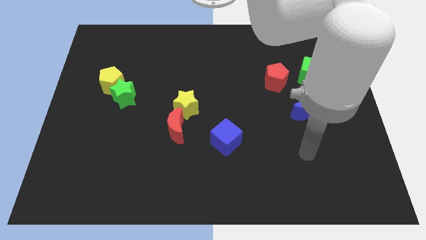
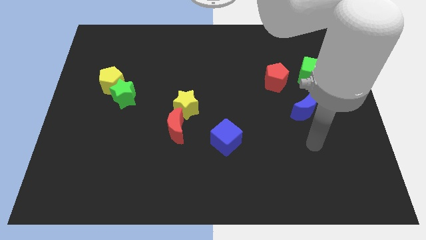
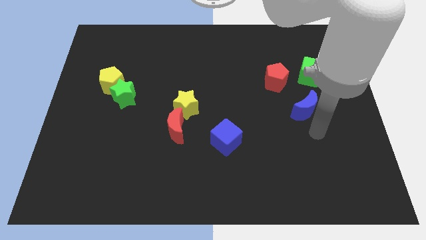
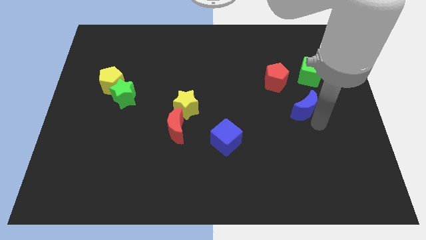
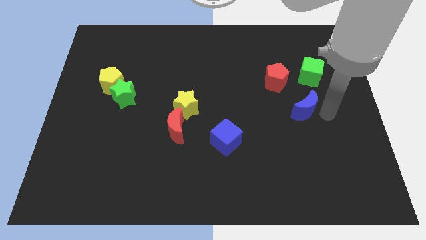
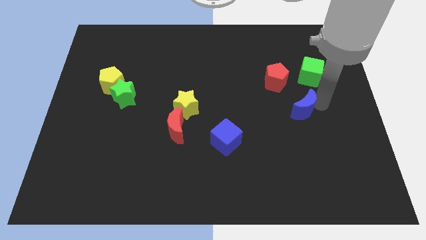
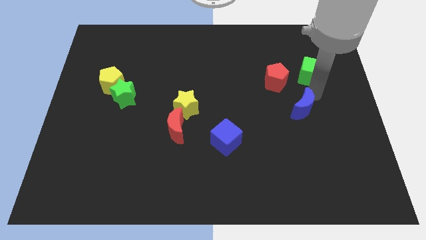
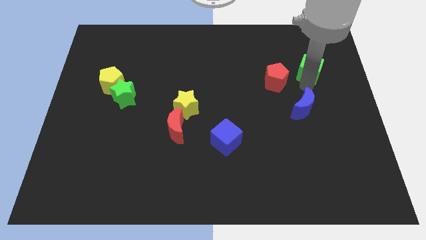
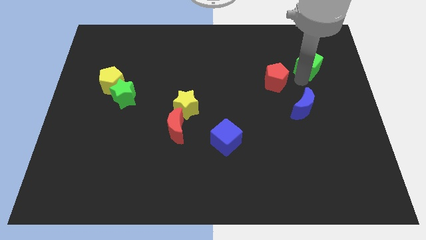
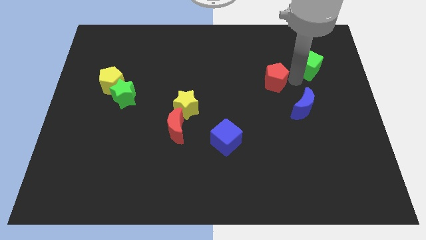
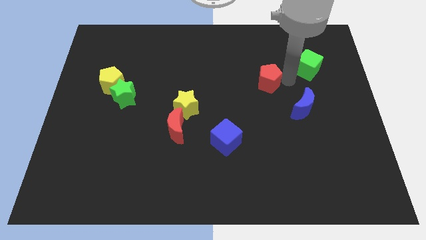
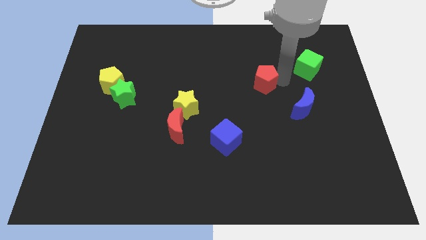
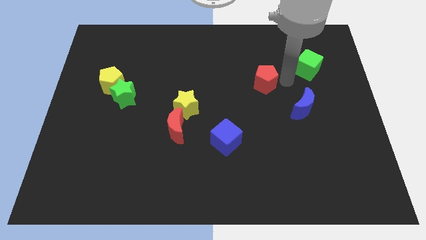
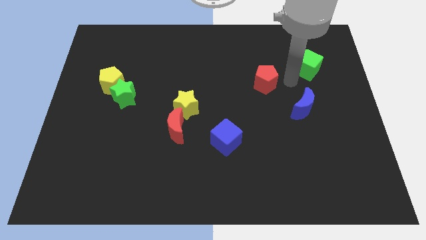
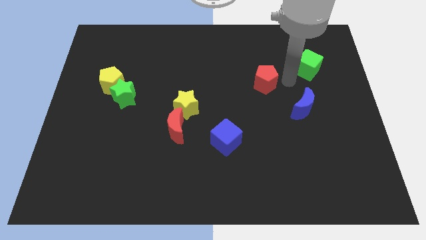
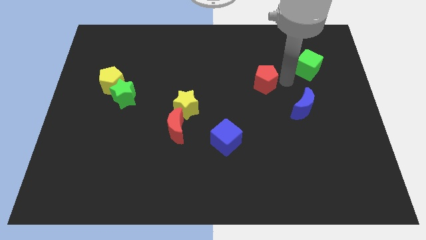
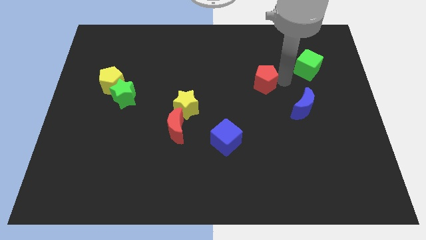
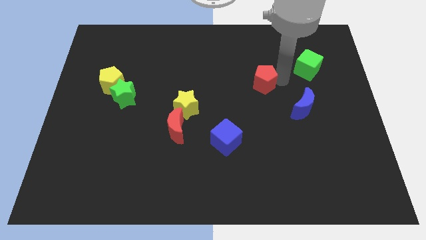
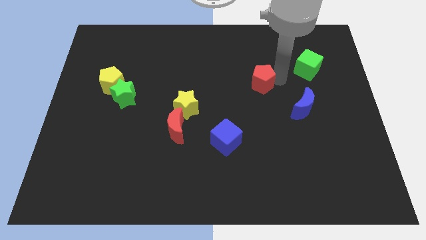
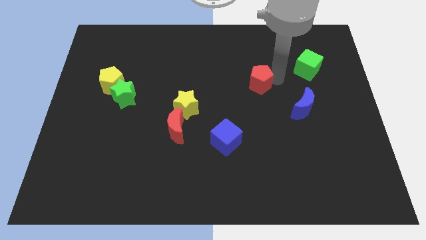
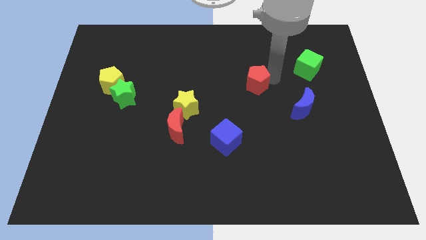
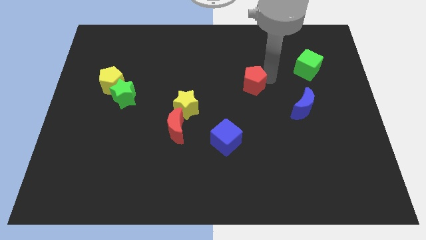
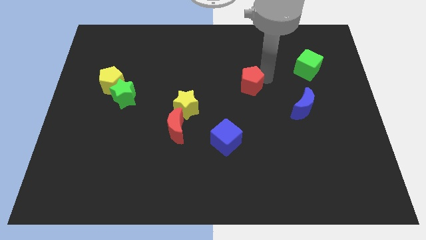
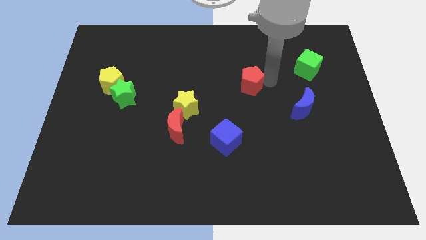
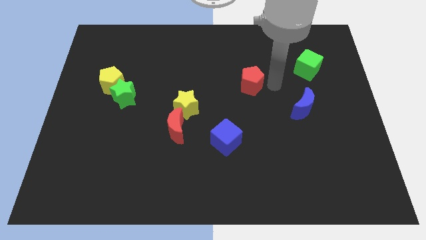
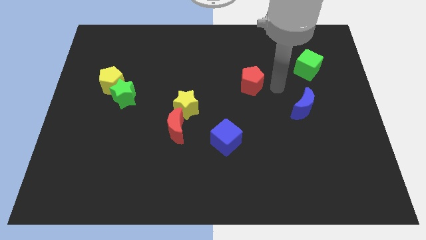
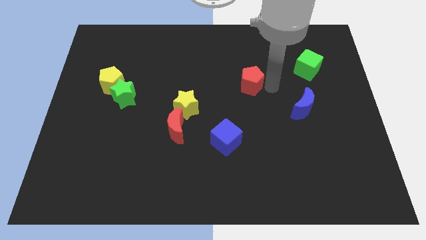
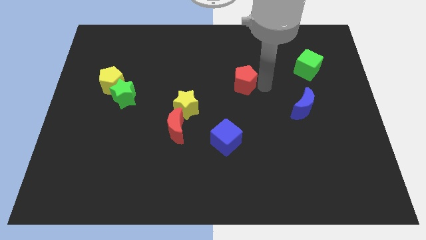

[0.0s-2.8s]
push the red pentagon to the left a little

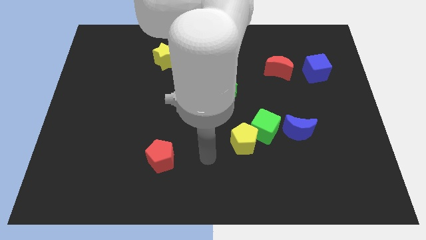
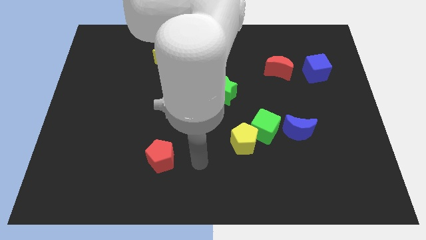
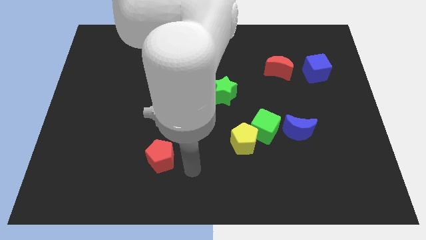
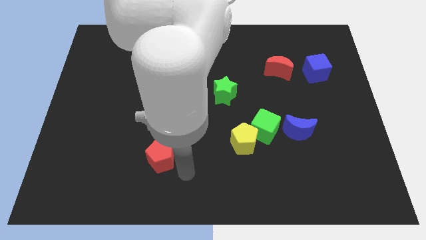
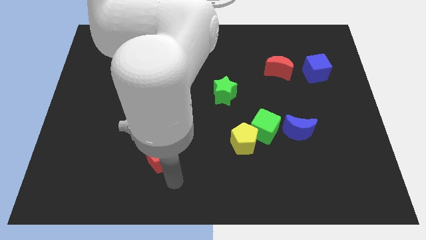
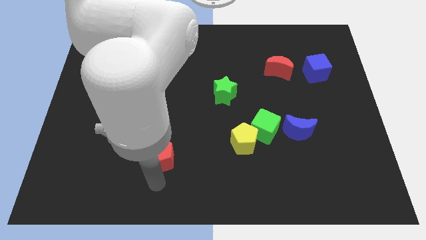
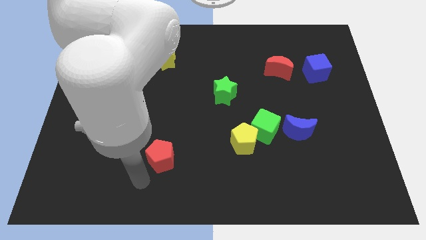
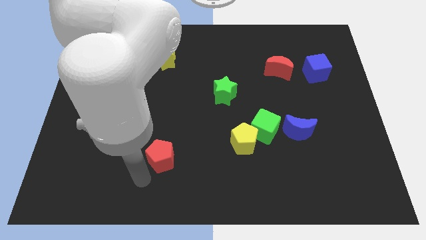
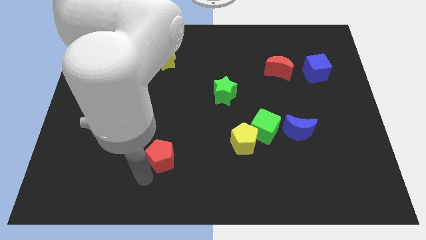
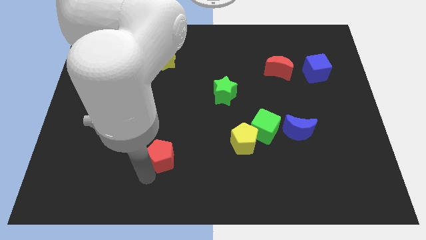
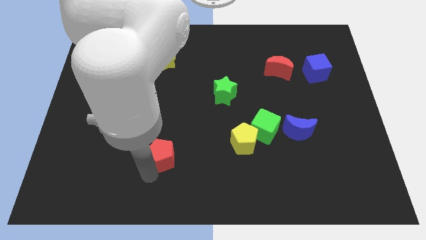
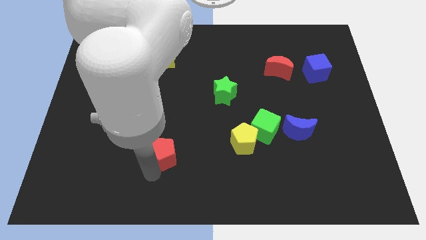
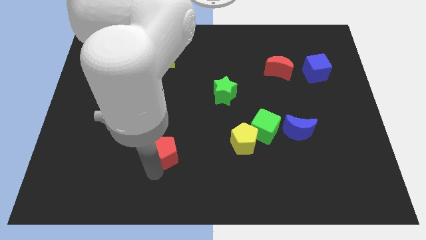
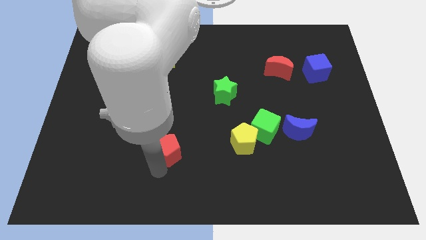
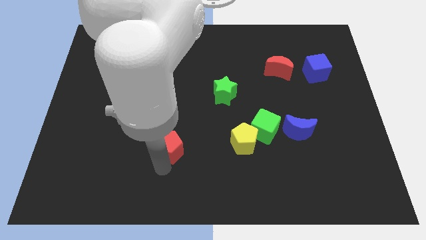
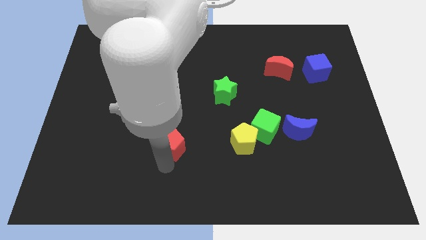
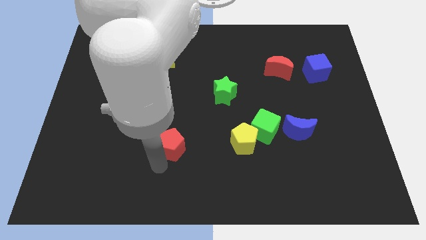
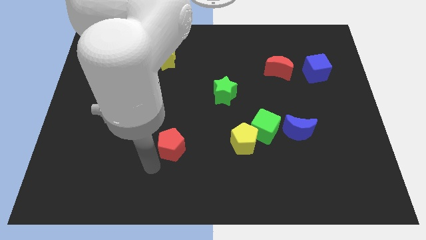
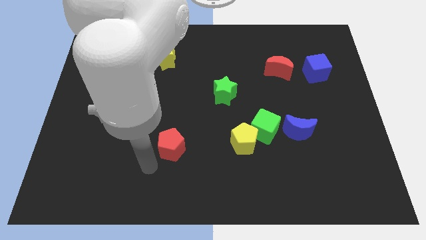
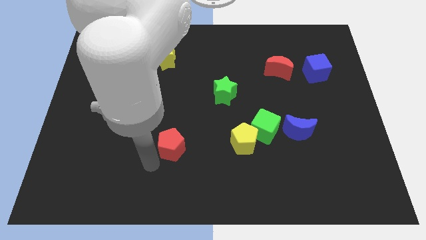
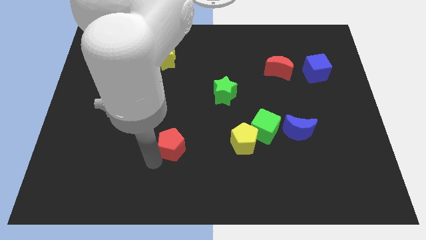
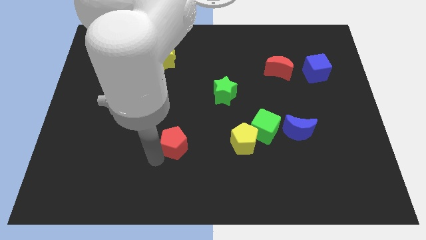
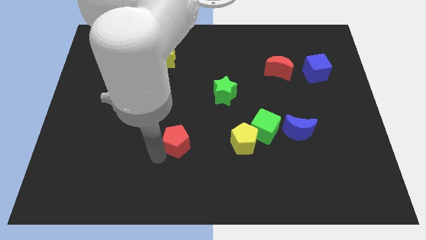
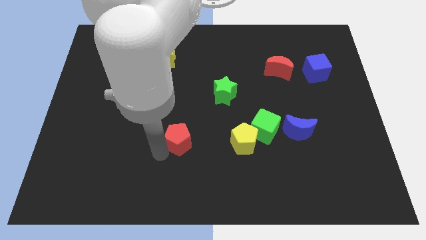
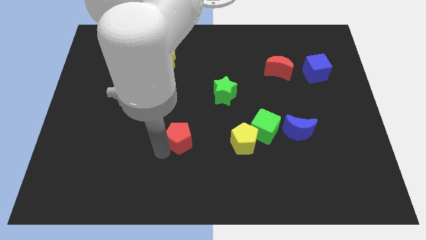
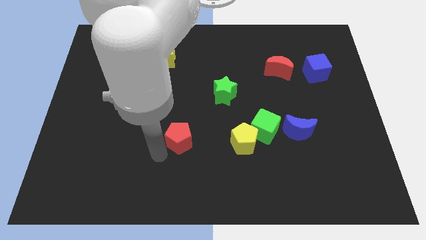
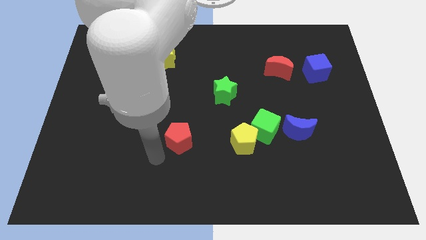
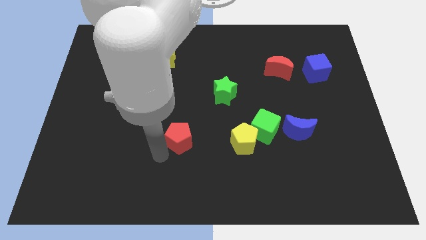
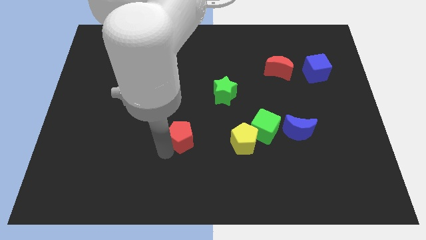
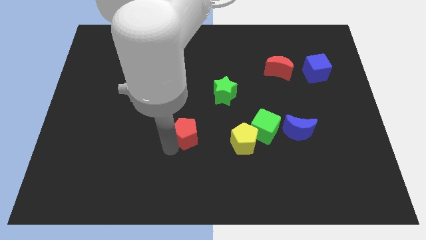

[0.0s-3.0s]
slightly move the red pentagon upwards and to the right diagonally

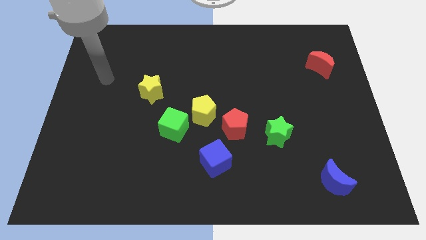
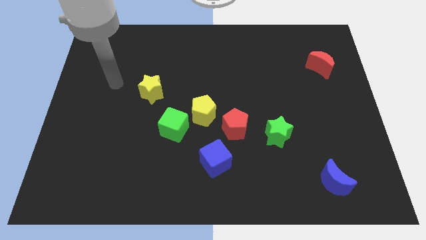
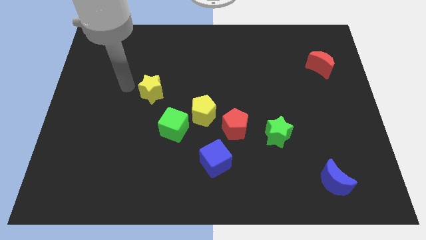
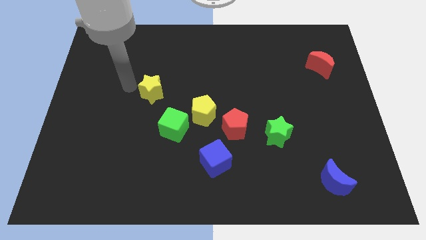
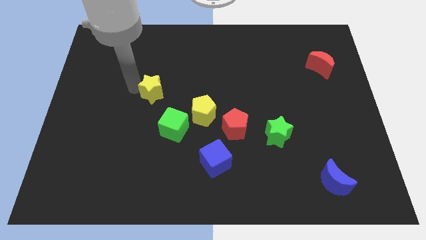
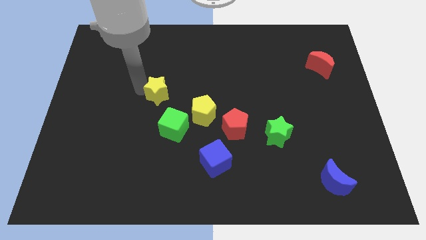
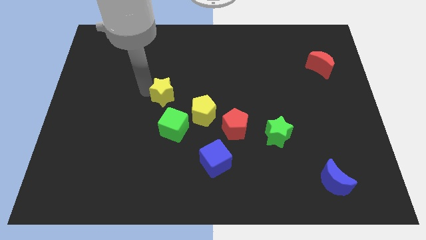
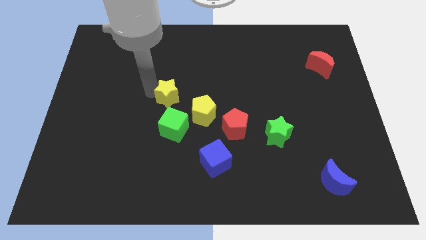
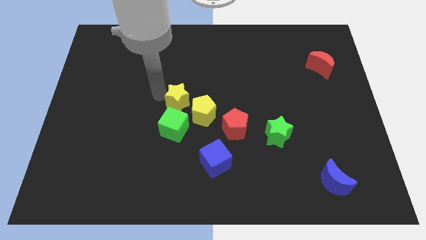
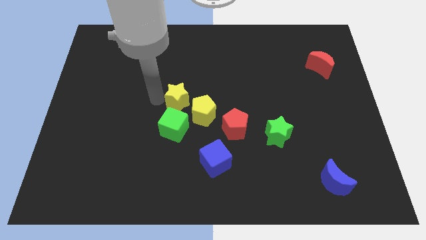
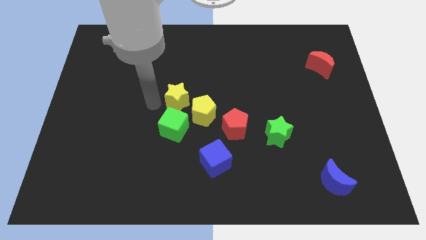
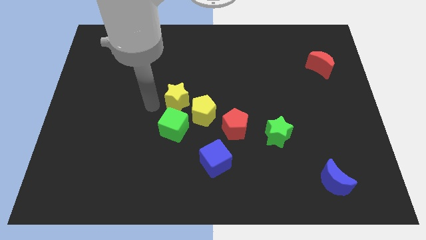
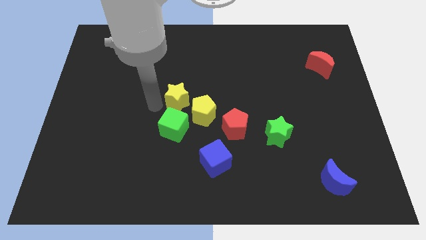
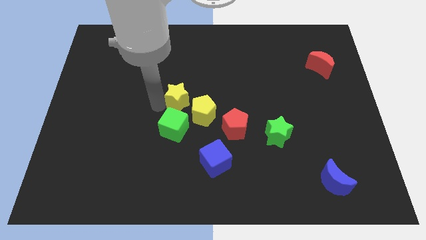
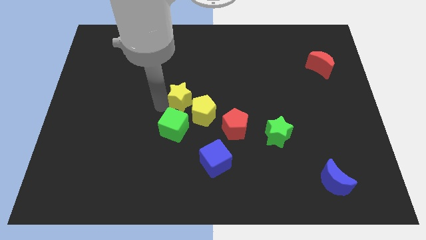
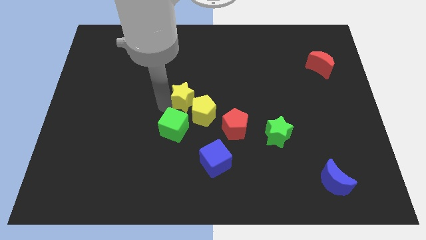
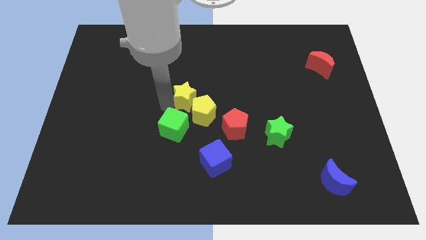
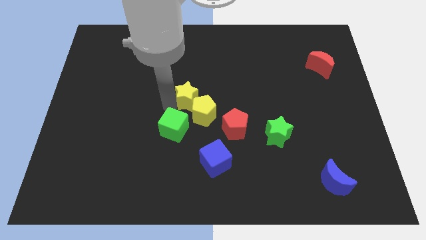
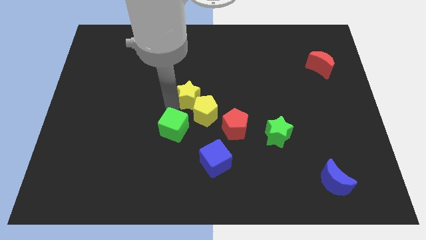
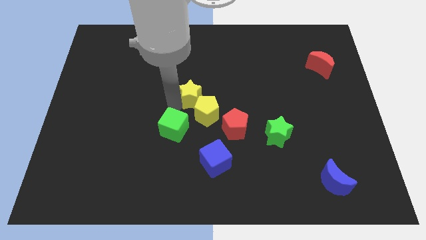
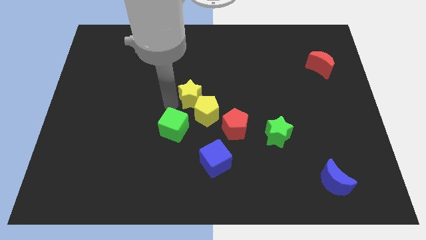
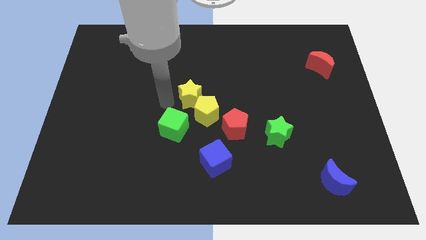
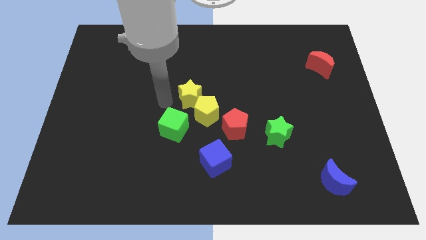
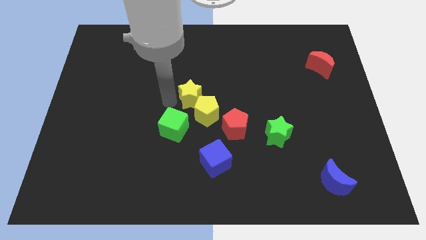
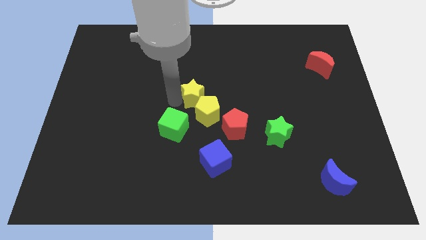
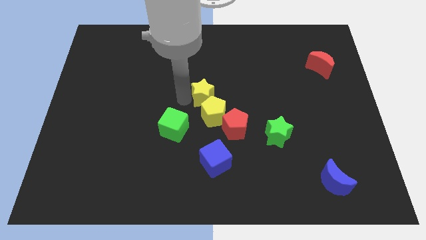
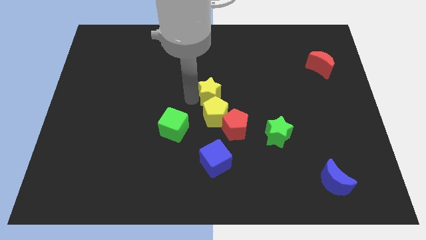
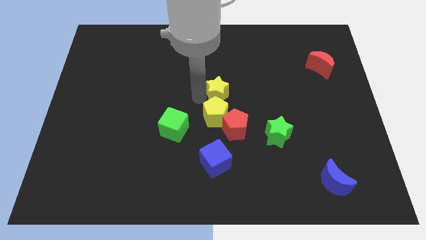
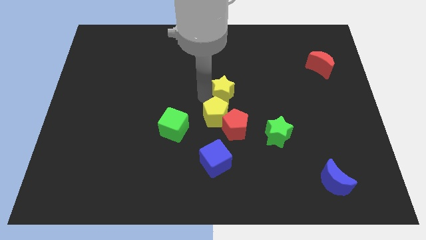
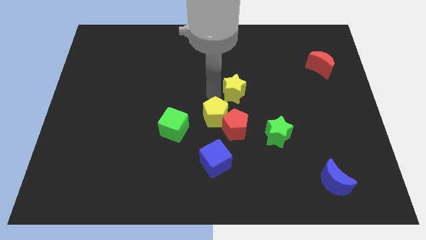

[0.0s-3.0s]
push the yellow star right
